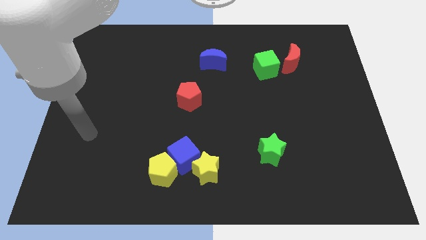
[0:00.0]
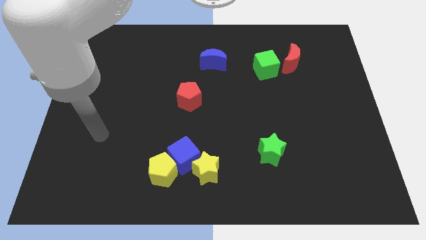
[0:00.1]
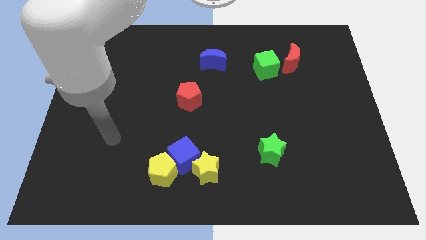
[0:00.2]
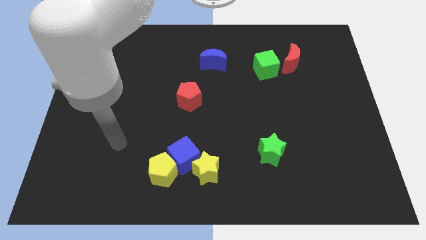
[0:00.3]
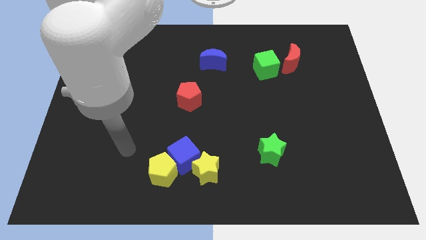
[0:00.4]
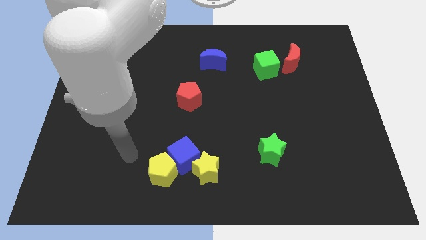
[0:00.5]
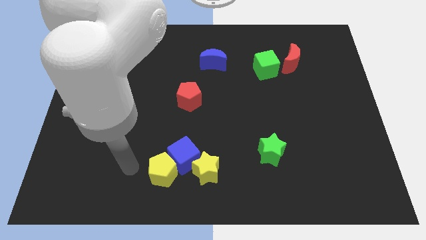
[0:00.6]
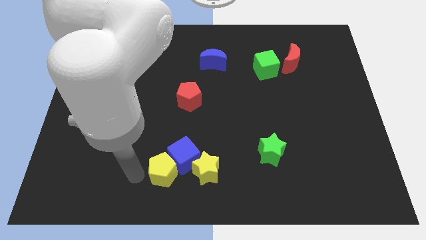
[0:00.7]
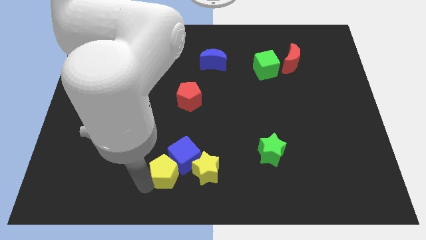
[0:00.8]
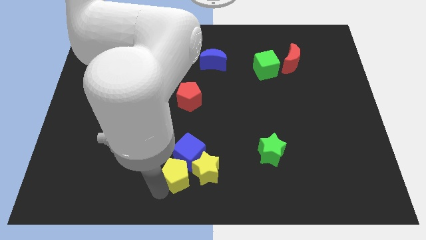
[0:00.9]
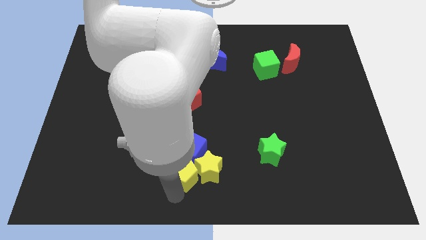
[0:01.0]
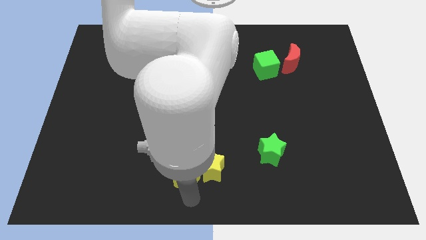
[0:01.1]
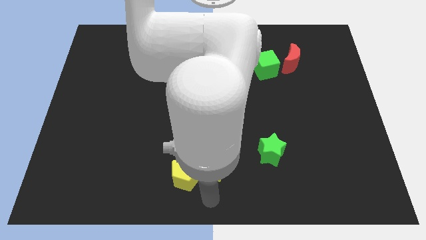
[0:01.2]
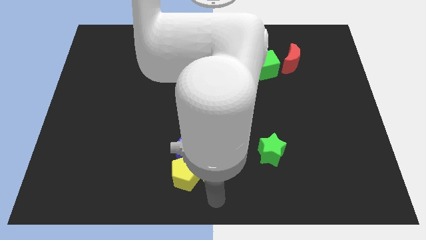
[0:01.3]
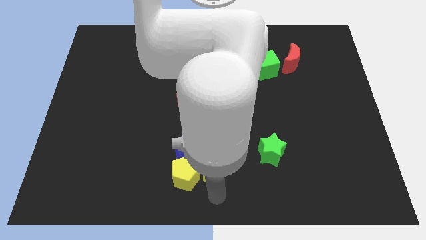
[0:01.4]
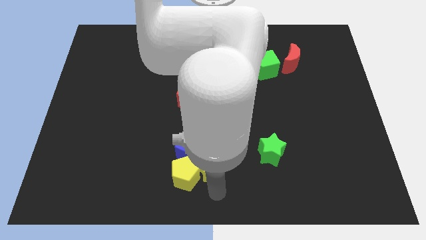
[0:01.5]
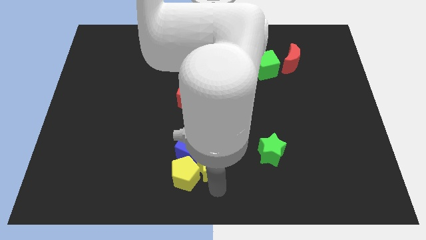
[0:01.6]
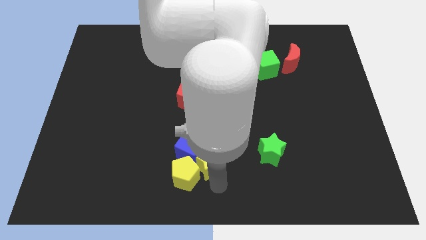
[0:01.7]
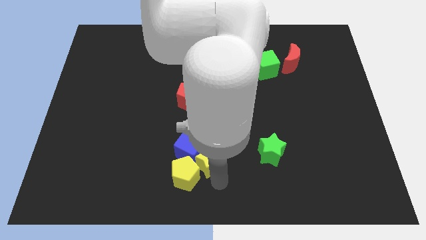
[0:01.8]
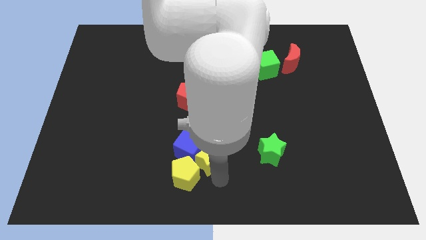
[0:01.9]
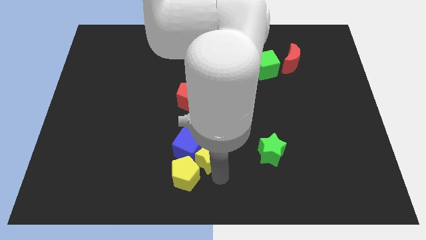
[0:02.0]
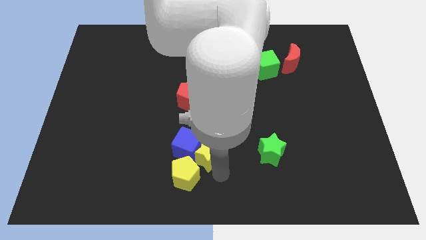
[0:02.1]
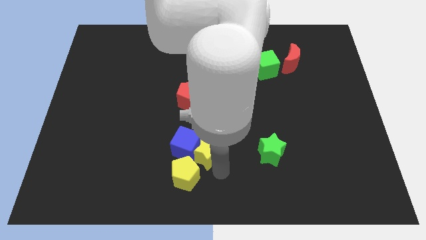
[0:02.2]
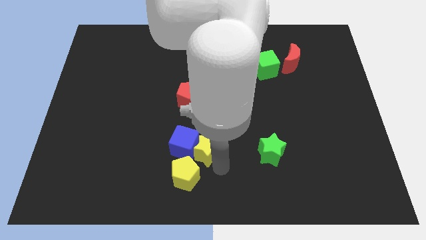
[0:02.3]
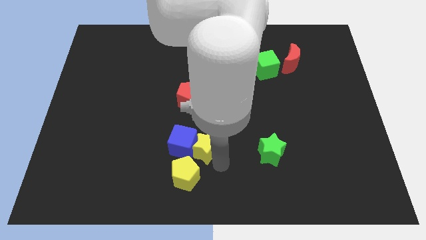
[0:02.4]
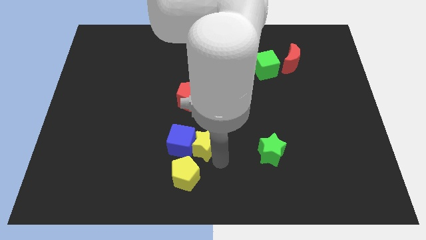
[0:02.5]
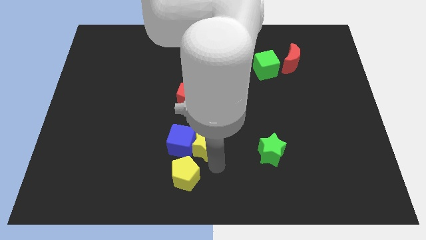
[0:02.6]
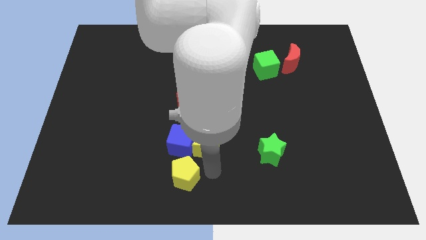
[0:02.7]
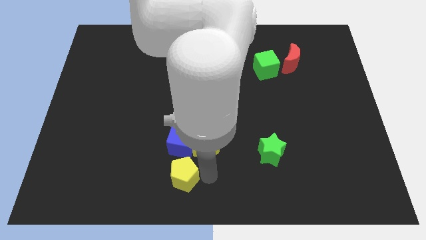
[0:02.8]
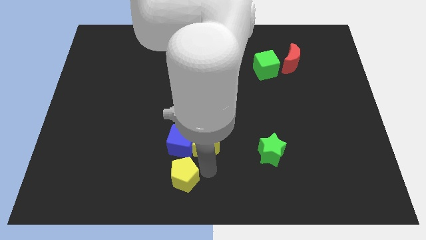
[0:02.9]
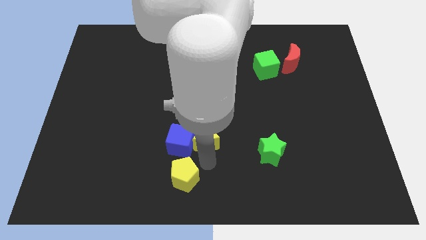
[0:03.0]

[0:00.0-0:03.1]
push the yellow star up a bit

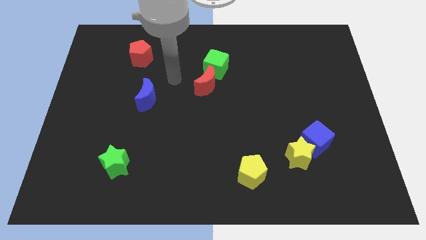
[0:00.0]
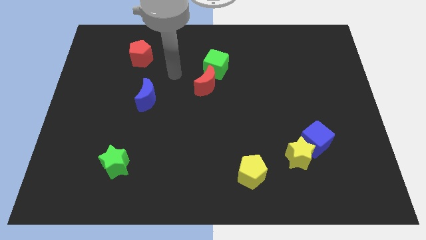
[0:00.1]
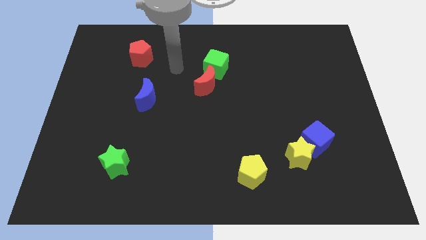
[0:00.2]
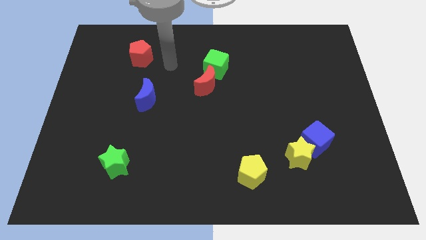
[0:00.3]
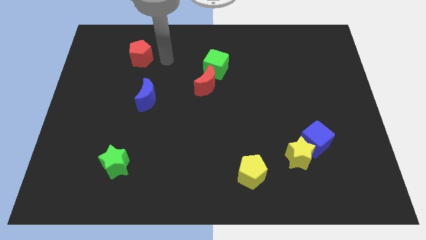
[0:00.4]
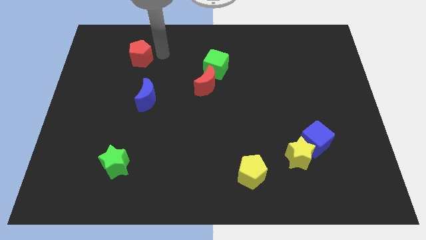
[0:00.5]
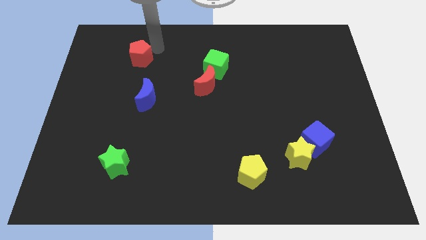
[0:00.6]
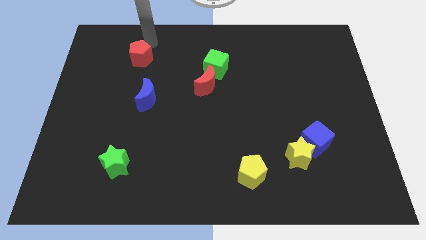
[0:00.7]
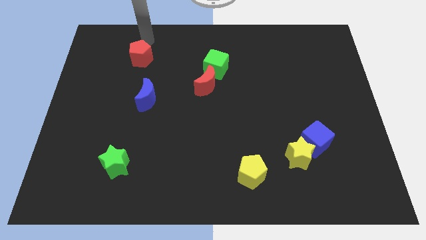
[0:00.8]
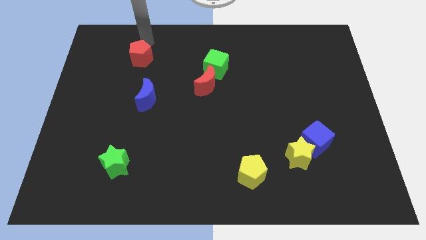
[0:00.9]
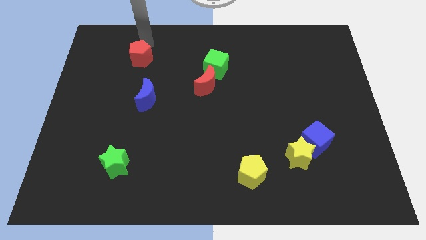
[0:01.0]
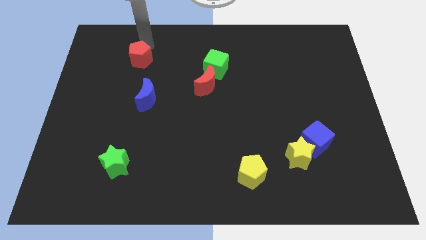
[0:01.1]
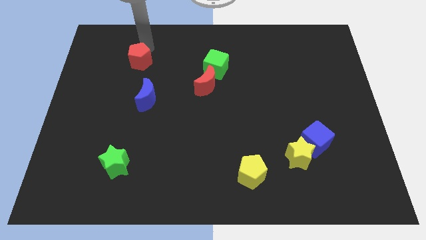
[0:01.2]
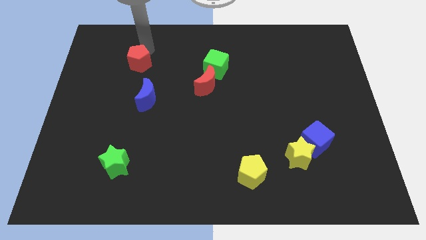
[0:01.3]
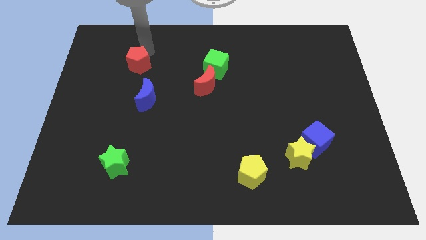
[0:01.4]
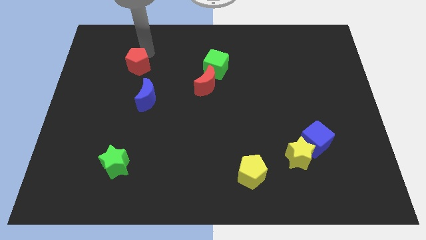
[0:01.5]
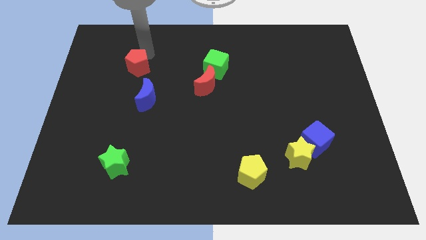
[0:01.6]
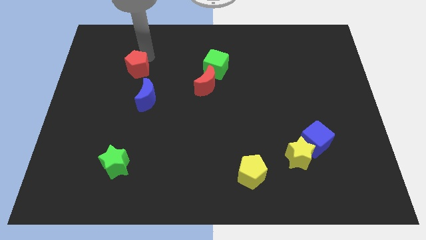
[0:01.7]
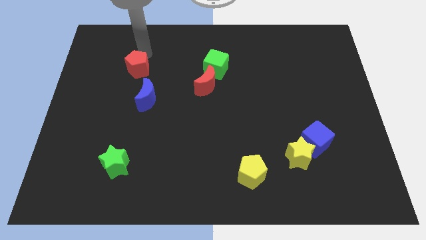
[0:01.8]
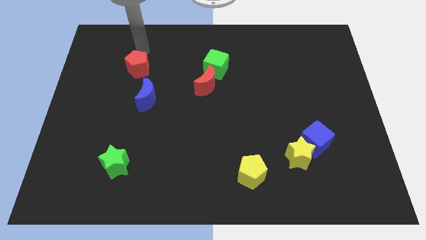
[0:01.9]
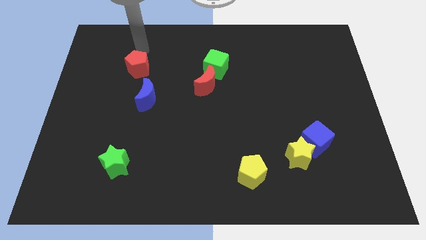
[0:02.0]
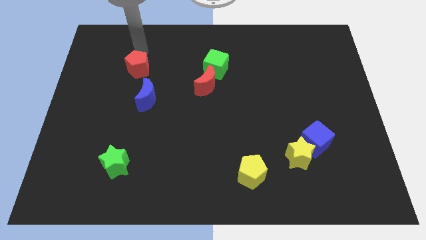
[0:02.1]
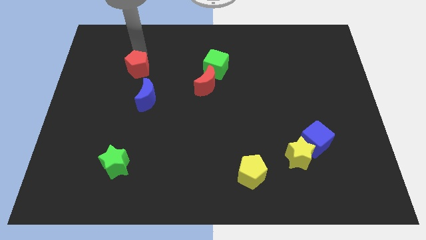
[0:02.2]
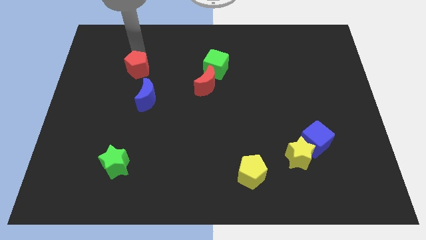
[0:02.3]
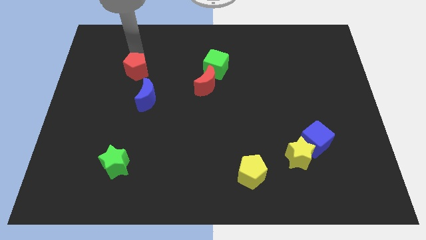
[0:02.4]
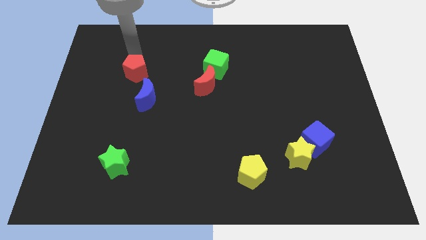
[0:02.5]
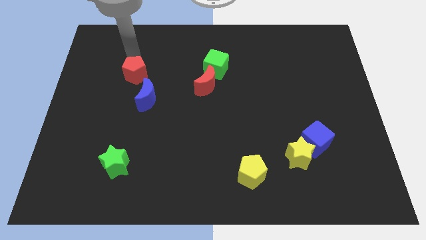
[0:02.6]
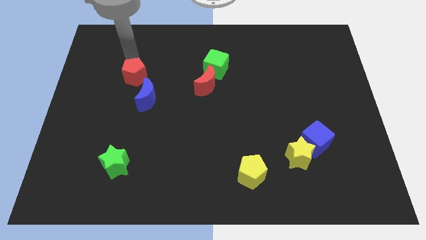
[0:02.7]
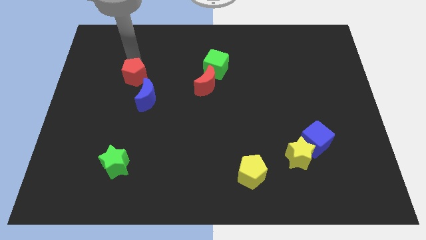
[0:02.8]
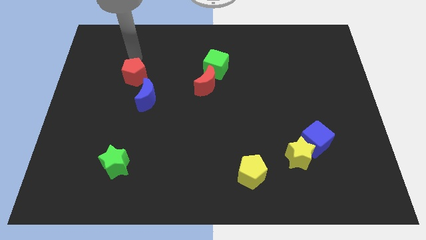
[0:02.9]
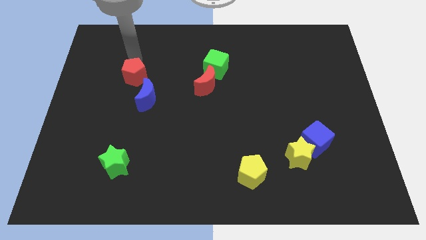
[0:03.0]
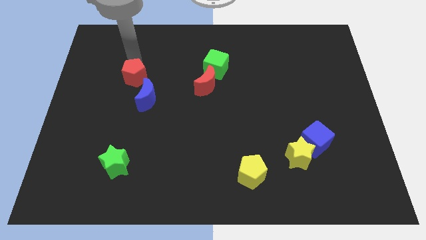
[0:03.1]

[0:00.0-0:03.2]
slightly move the red pentagon downwards

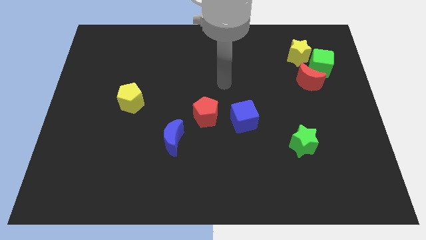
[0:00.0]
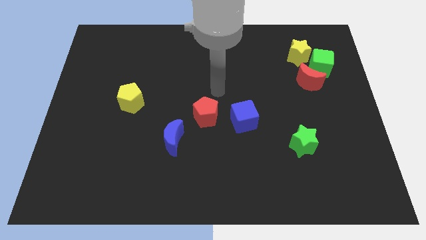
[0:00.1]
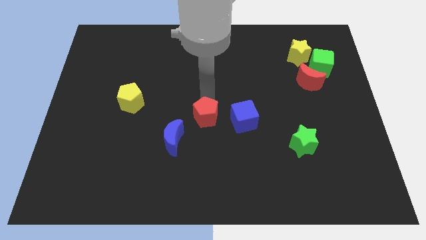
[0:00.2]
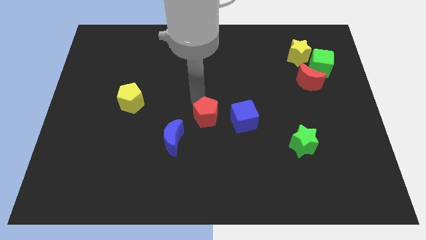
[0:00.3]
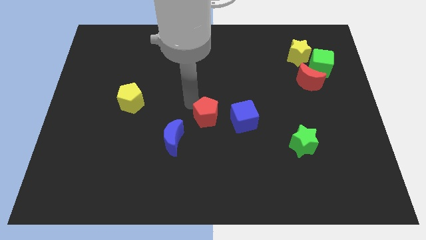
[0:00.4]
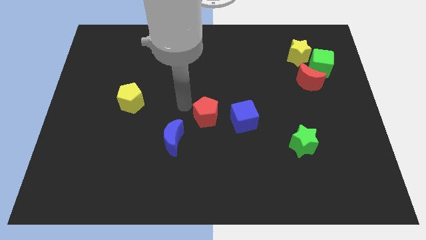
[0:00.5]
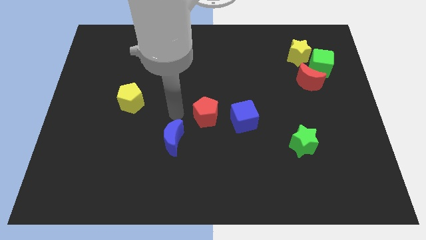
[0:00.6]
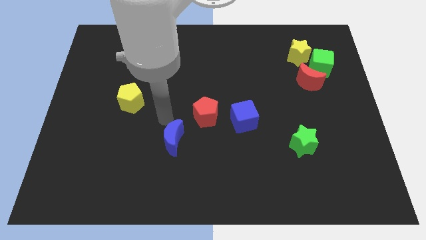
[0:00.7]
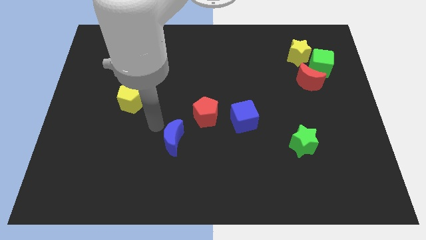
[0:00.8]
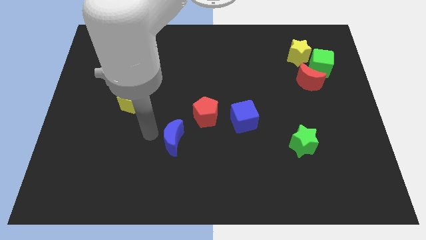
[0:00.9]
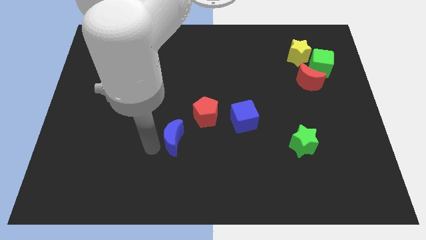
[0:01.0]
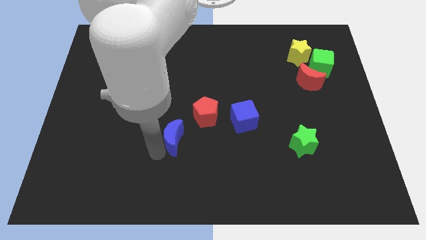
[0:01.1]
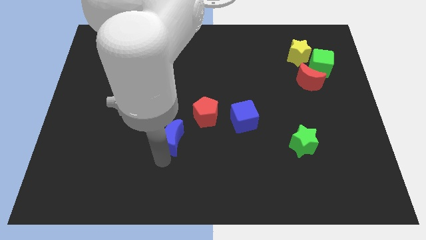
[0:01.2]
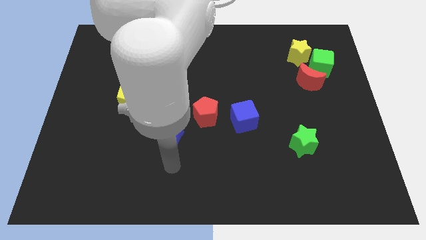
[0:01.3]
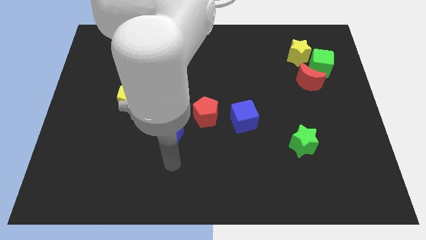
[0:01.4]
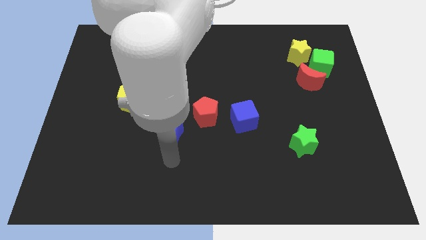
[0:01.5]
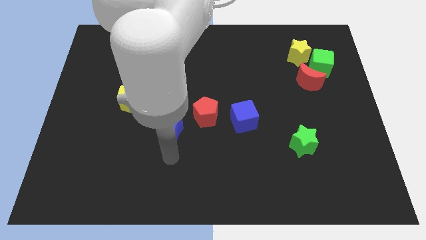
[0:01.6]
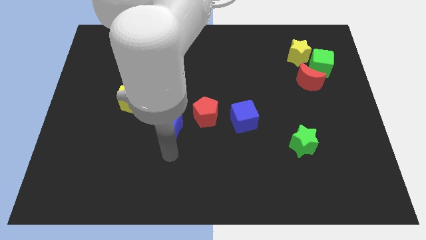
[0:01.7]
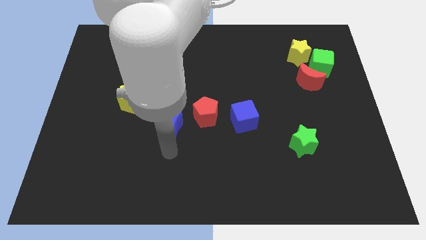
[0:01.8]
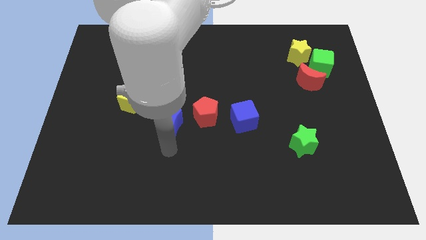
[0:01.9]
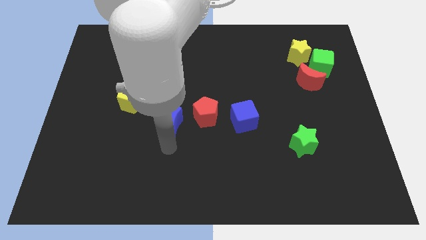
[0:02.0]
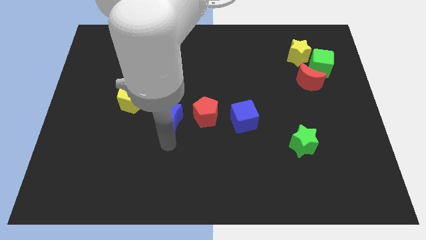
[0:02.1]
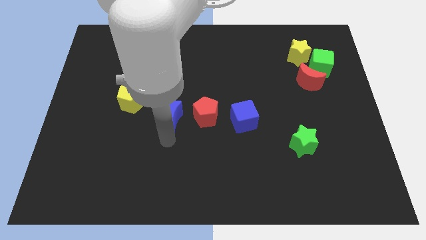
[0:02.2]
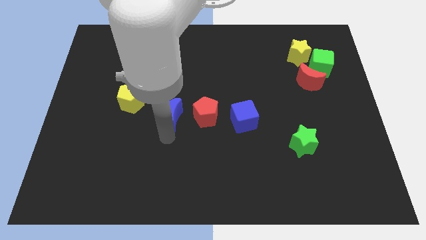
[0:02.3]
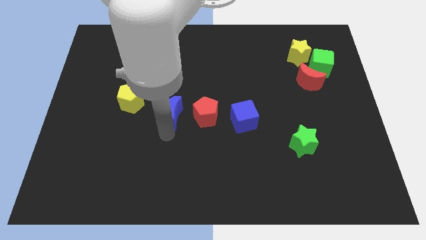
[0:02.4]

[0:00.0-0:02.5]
push the blue moon a bit up
